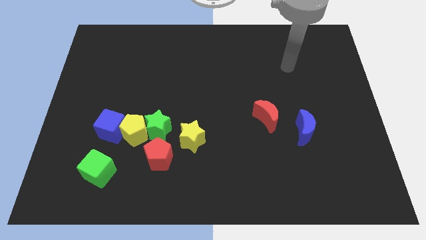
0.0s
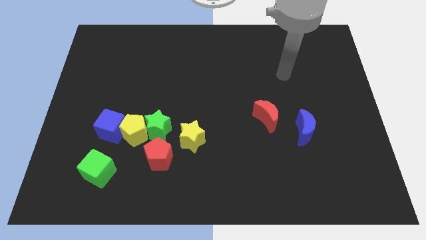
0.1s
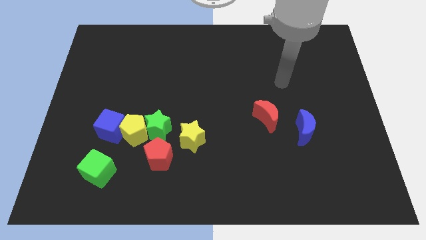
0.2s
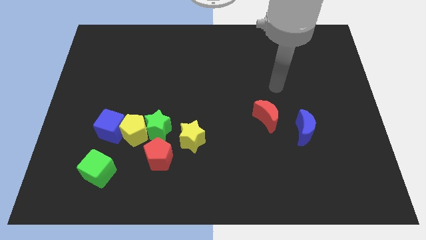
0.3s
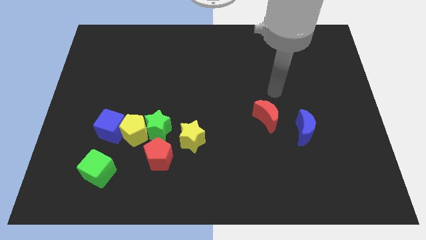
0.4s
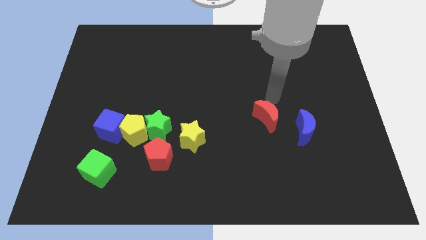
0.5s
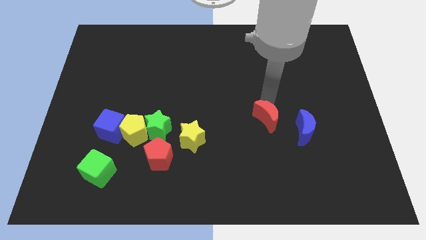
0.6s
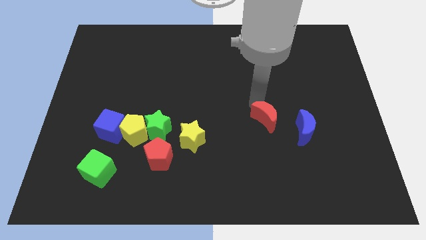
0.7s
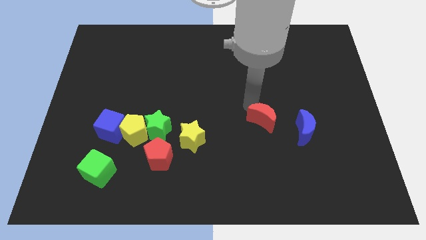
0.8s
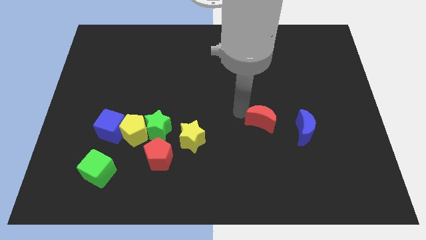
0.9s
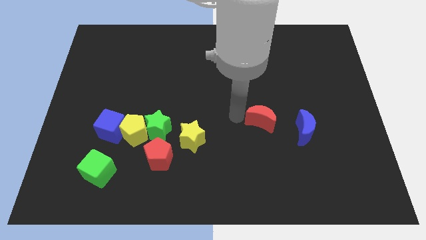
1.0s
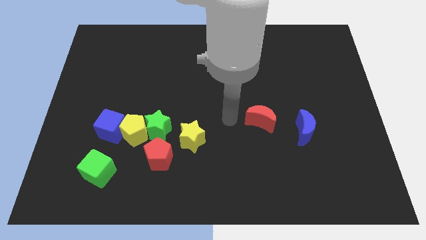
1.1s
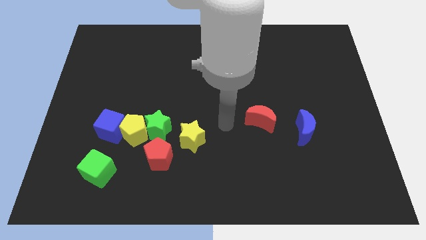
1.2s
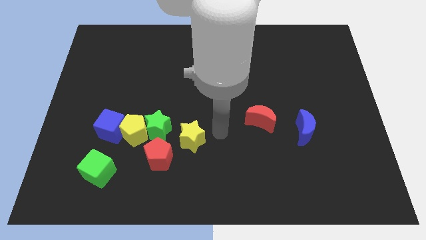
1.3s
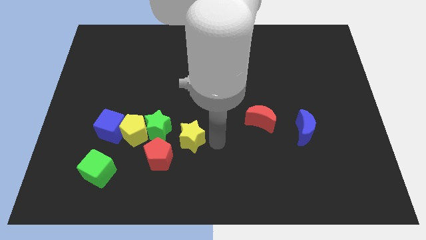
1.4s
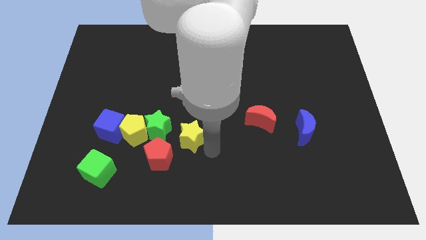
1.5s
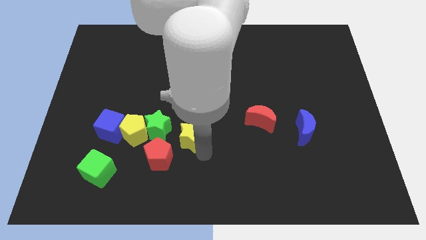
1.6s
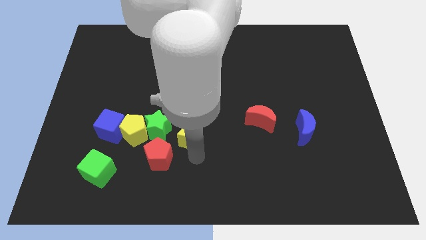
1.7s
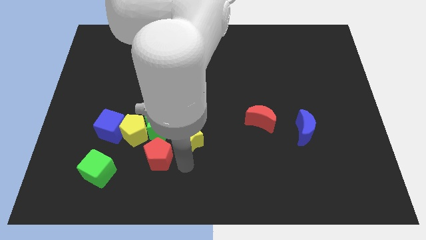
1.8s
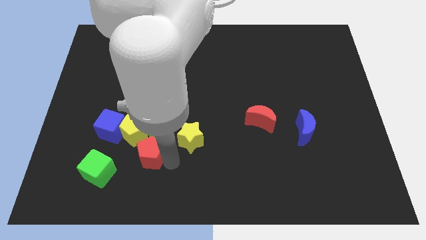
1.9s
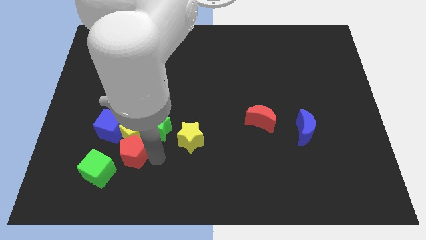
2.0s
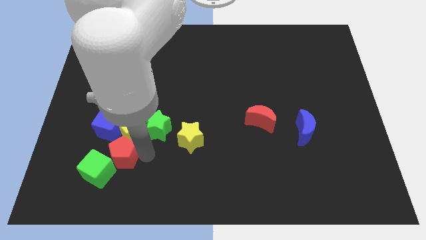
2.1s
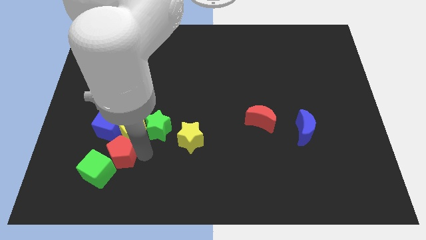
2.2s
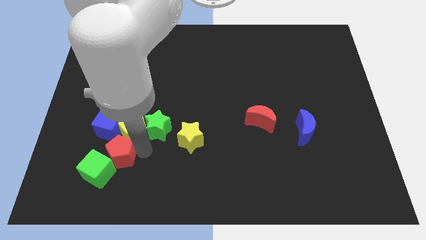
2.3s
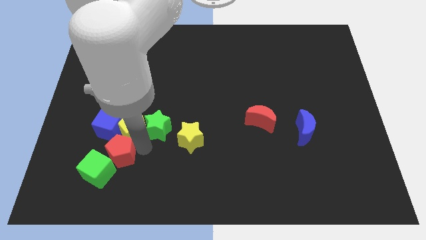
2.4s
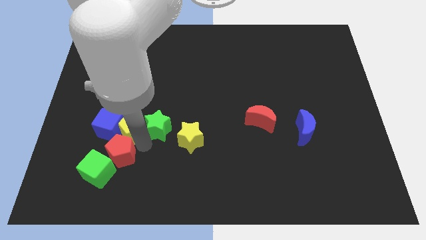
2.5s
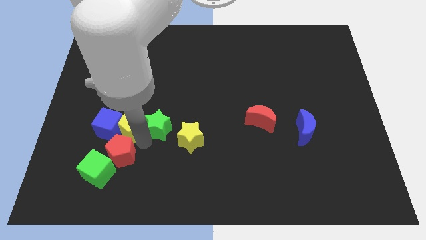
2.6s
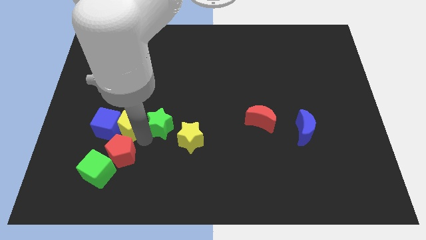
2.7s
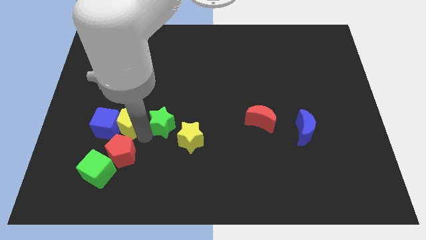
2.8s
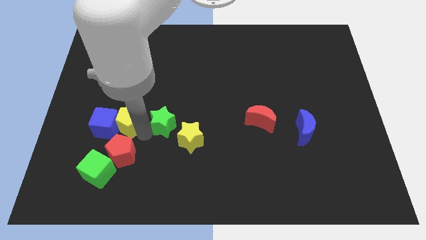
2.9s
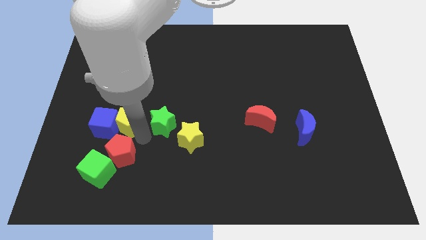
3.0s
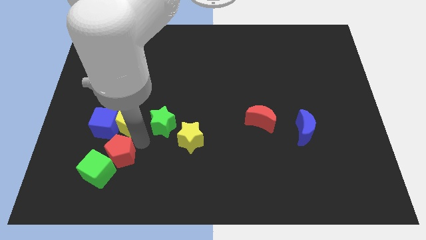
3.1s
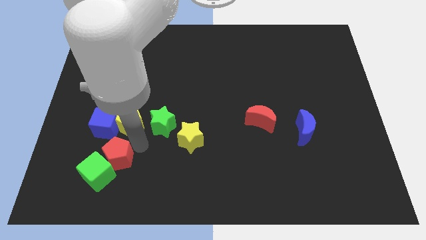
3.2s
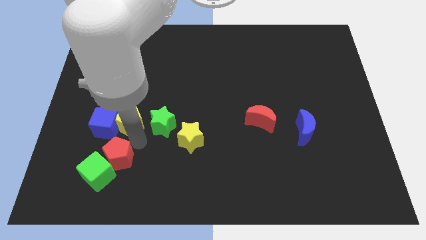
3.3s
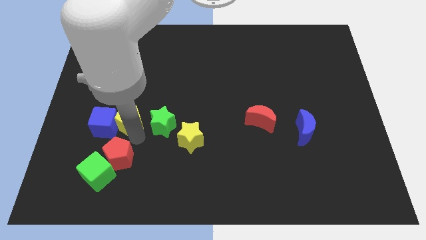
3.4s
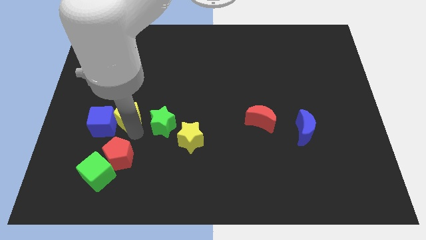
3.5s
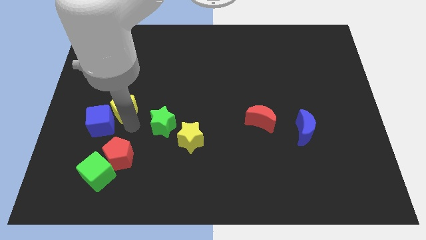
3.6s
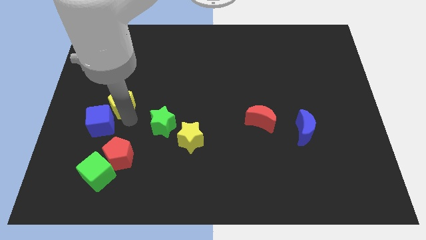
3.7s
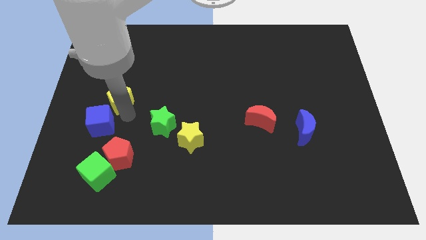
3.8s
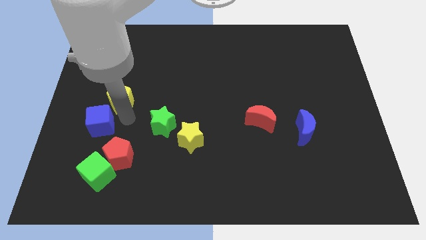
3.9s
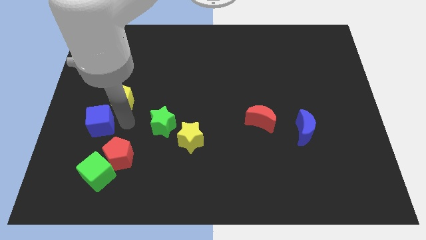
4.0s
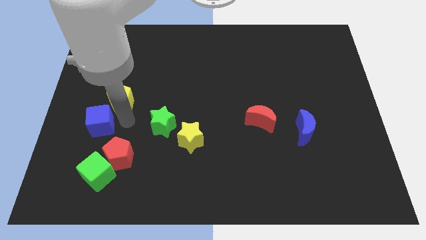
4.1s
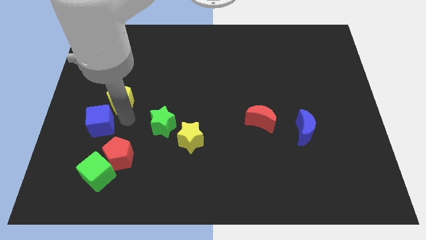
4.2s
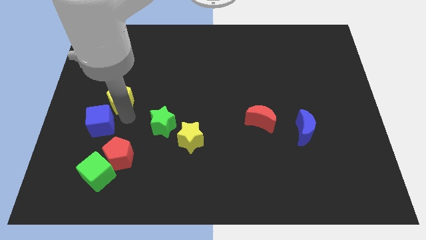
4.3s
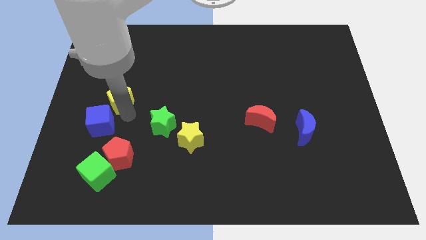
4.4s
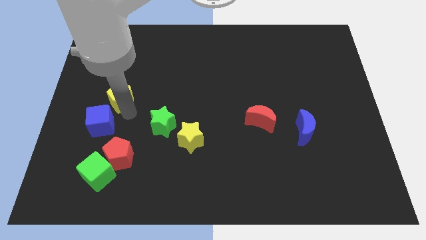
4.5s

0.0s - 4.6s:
separate the yellow pentagon from the clump

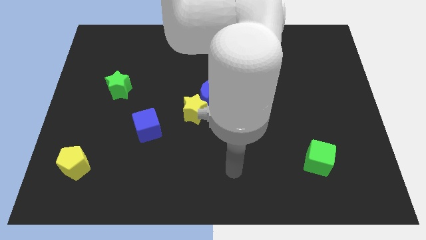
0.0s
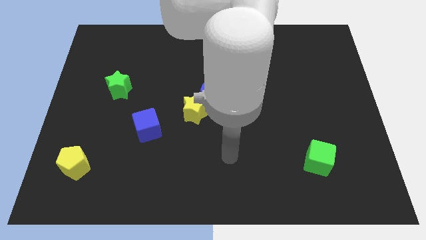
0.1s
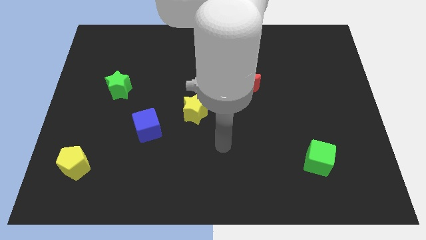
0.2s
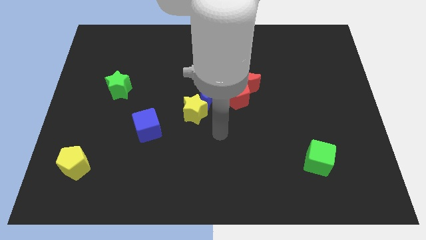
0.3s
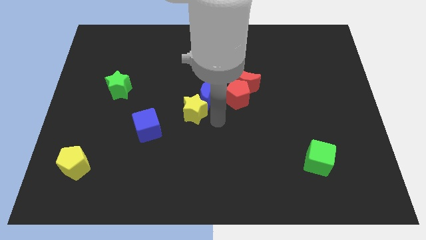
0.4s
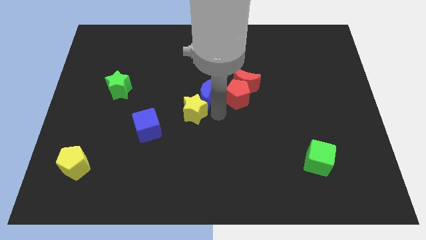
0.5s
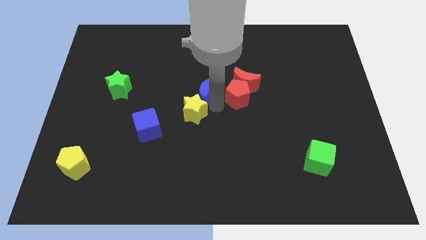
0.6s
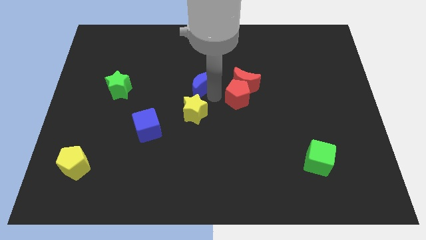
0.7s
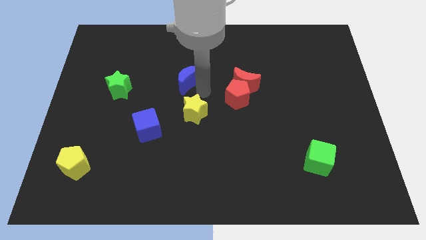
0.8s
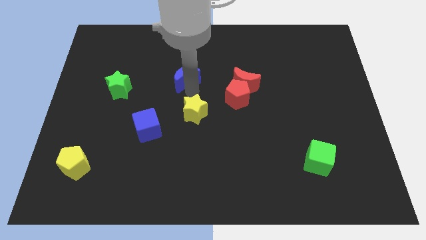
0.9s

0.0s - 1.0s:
move the yellow star away from the blue moon

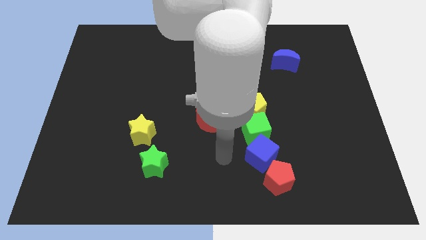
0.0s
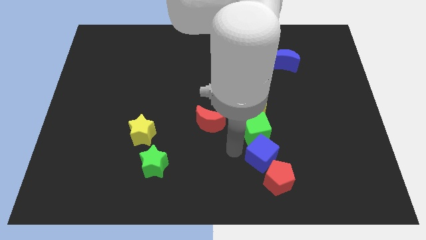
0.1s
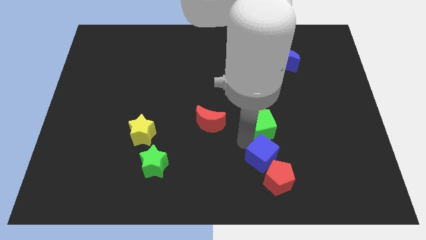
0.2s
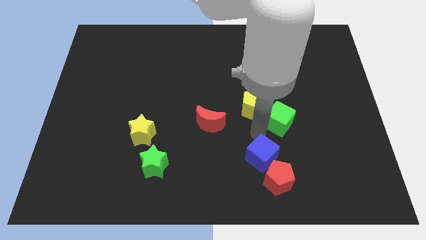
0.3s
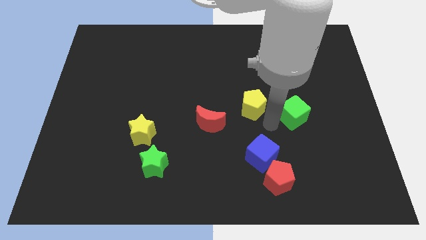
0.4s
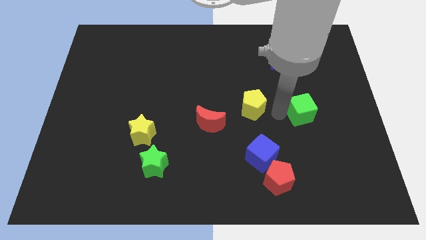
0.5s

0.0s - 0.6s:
separate the yellow pentagon from the green cube

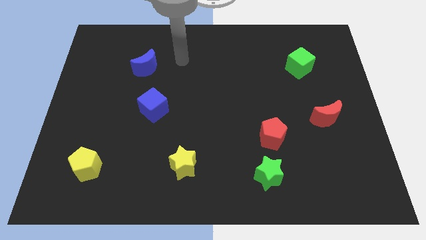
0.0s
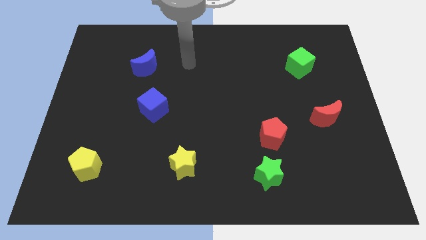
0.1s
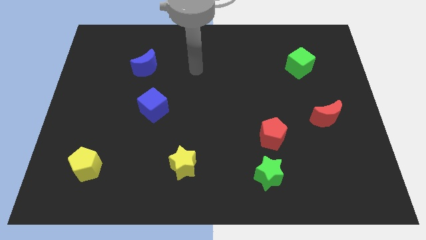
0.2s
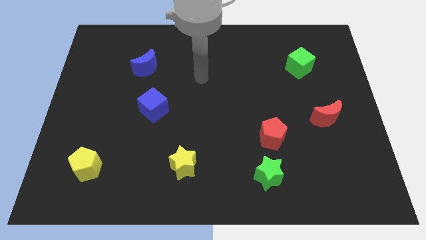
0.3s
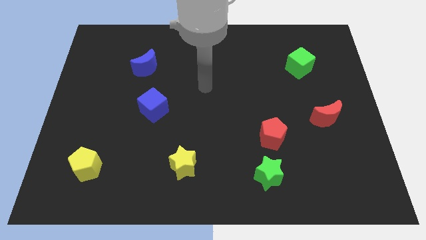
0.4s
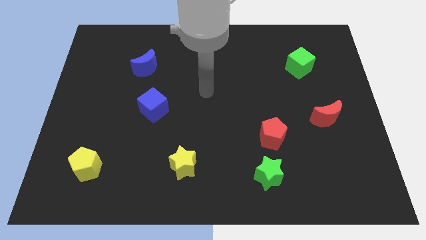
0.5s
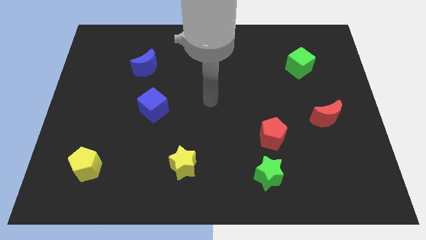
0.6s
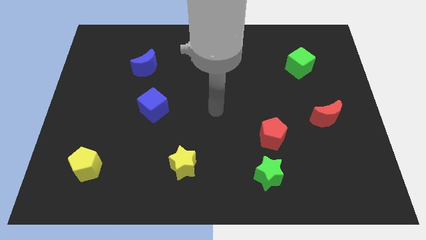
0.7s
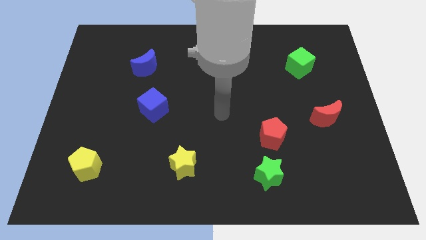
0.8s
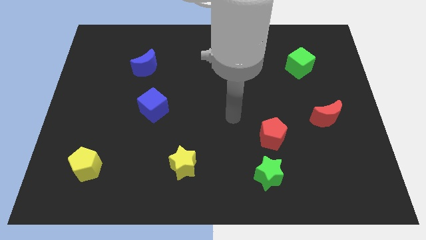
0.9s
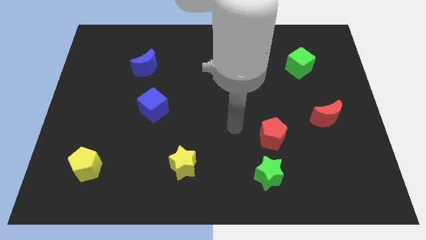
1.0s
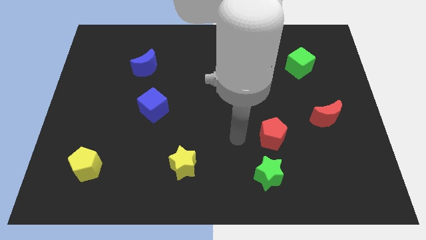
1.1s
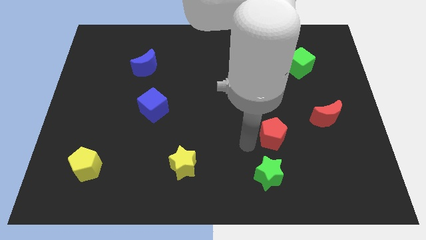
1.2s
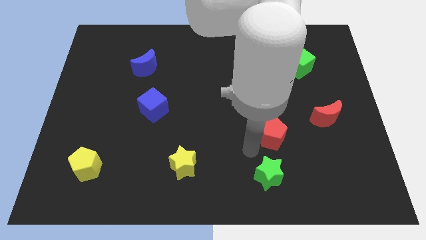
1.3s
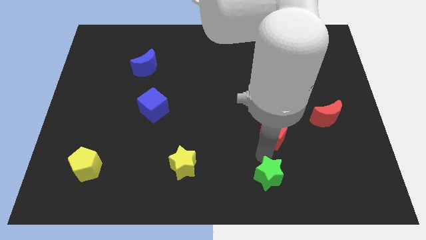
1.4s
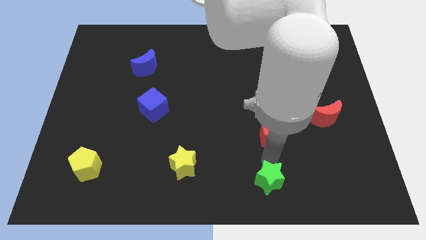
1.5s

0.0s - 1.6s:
move the red pentagon away from the green star

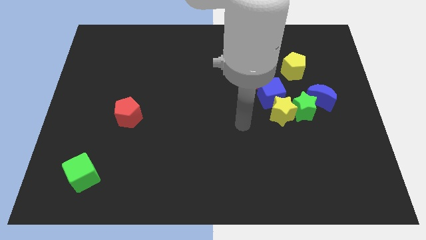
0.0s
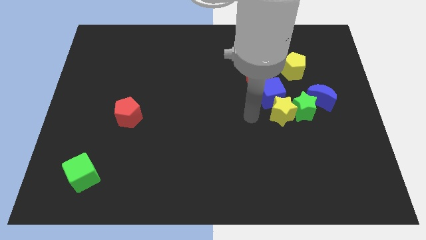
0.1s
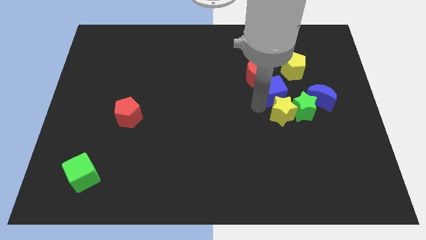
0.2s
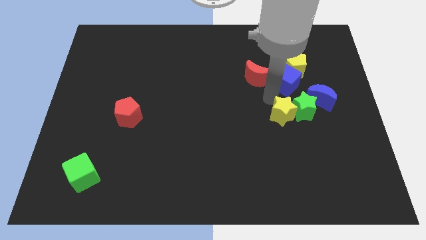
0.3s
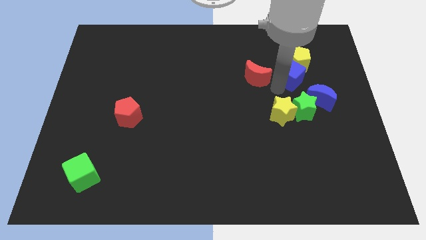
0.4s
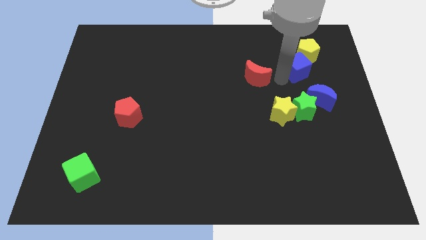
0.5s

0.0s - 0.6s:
separate the red moon from the blue cube

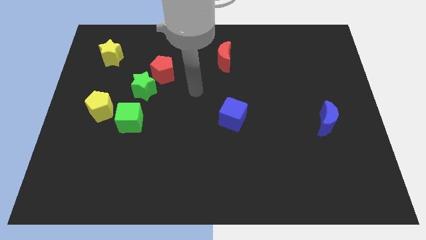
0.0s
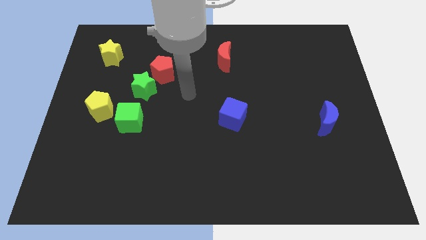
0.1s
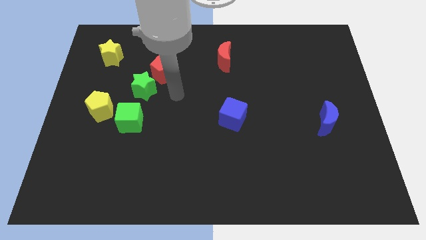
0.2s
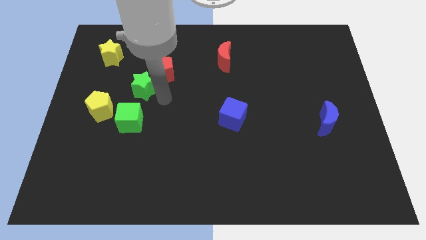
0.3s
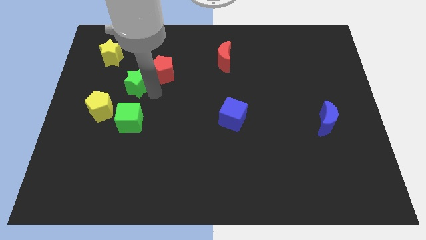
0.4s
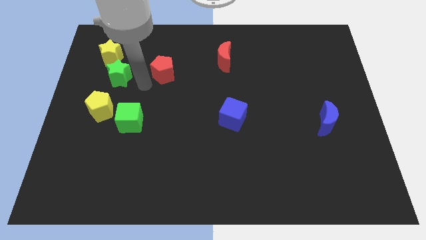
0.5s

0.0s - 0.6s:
separate the red pentagon from the green star

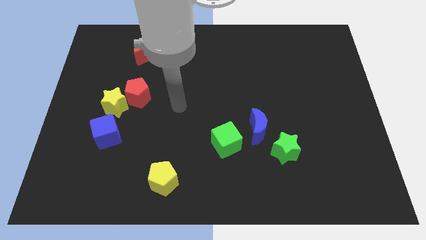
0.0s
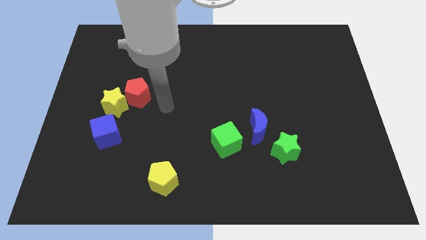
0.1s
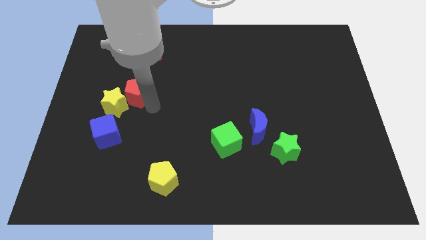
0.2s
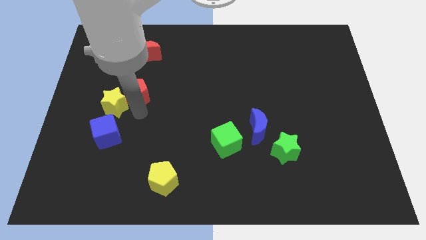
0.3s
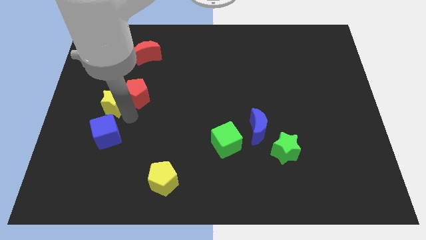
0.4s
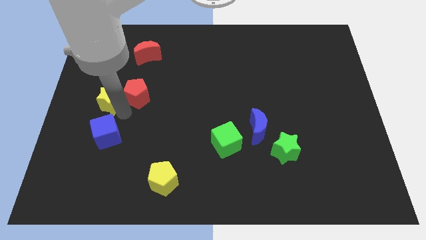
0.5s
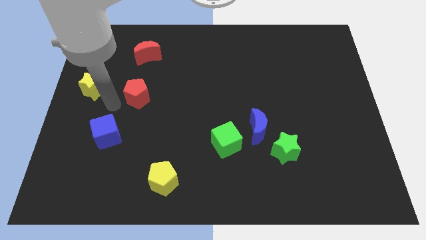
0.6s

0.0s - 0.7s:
pull the red pentagon apart from the yellow star
